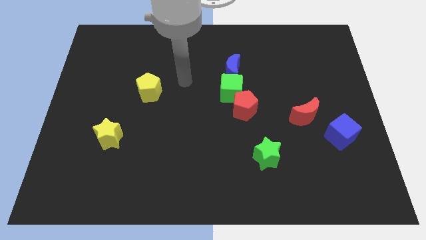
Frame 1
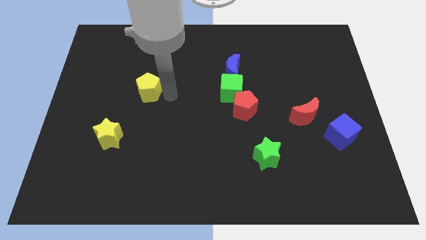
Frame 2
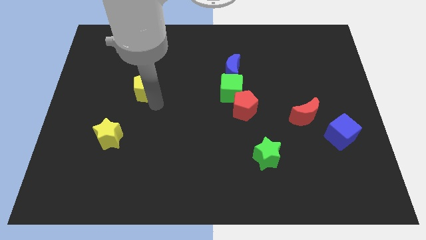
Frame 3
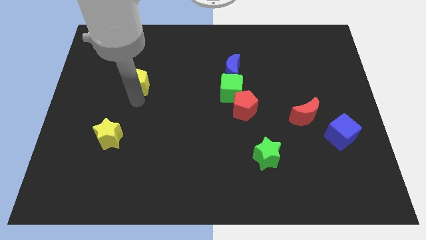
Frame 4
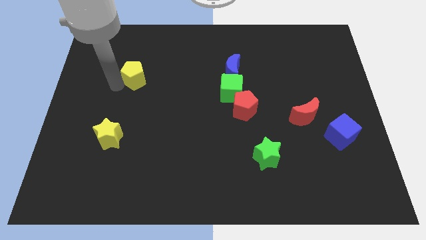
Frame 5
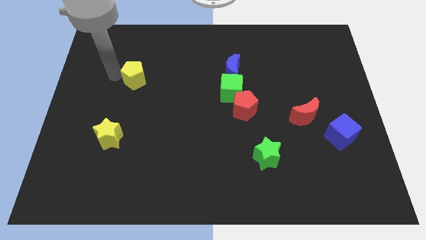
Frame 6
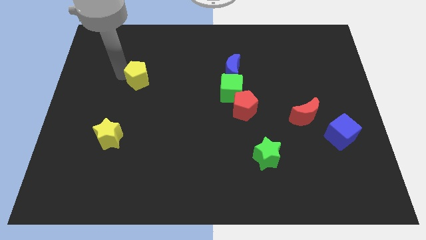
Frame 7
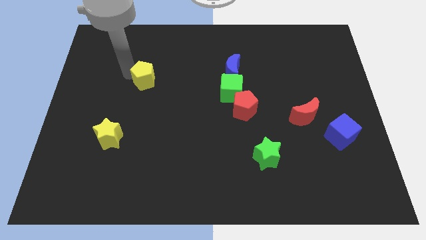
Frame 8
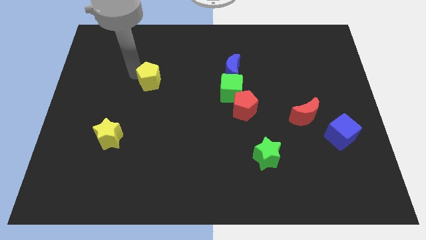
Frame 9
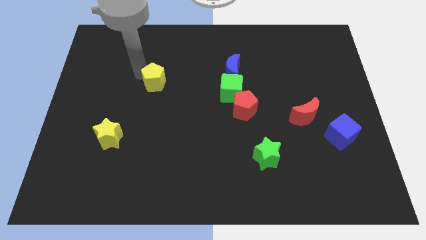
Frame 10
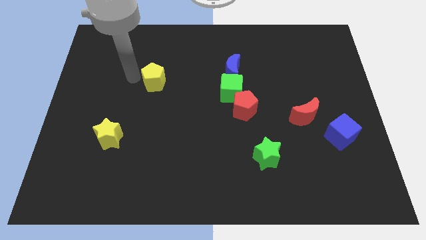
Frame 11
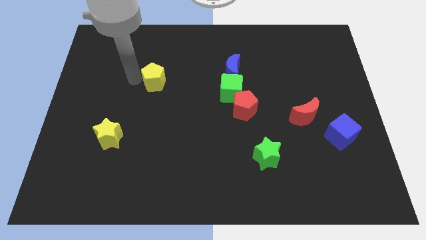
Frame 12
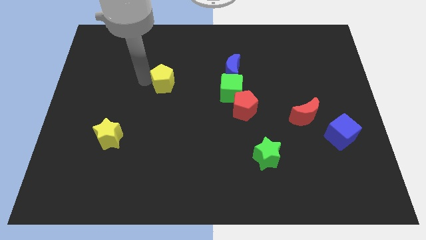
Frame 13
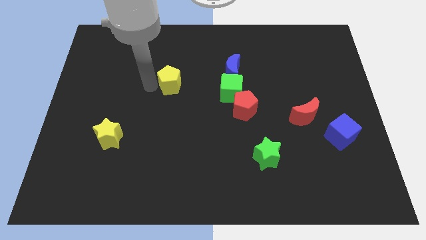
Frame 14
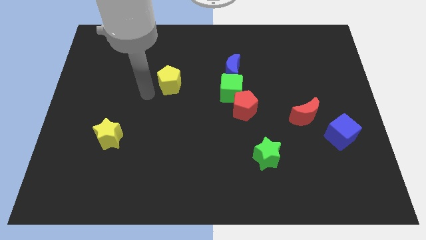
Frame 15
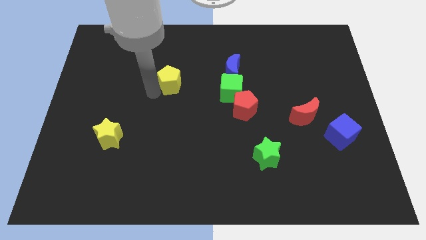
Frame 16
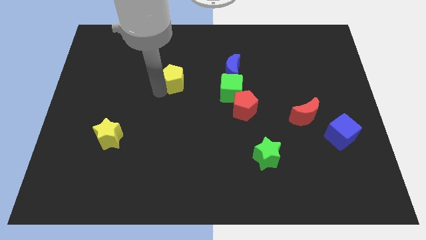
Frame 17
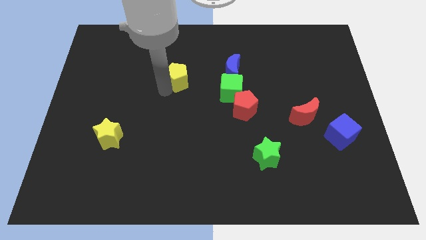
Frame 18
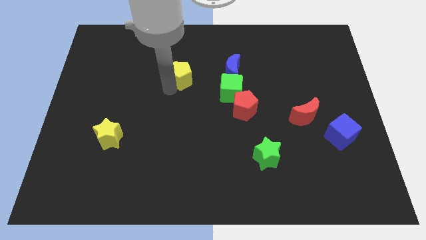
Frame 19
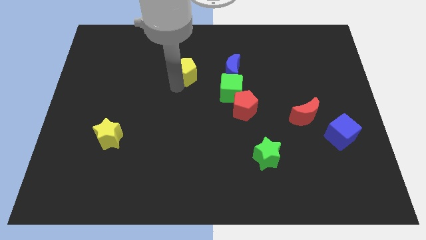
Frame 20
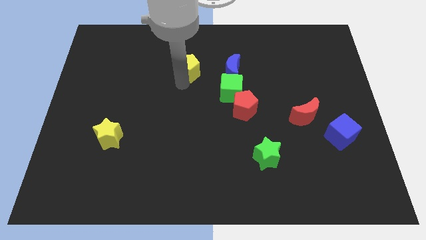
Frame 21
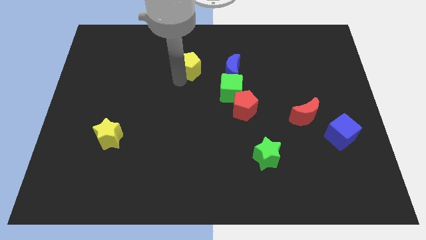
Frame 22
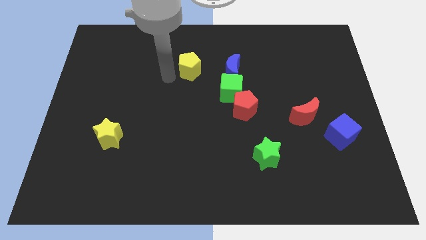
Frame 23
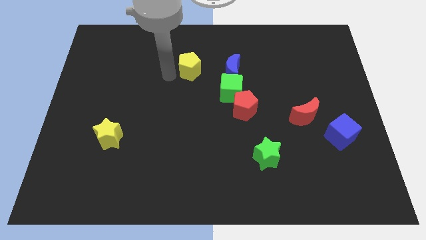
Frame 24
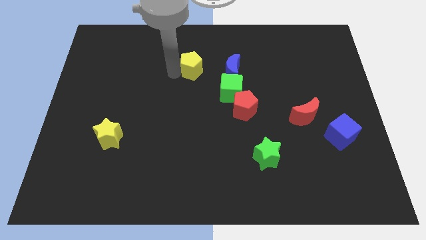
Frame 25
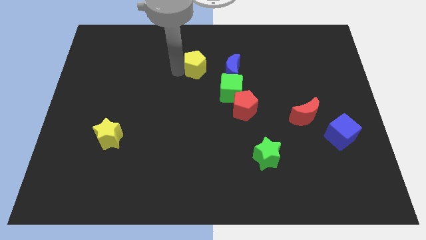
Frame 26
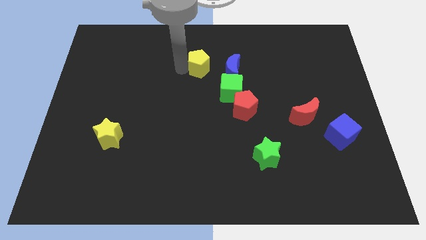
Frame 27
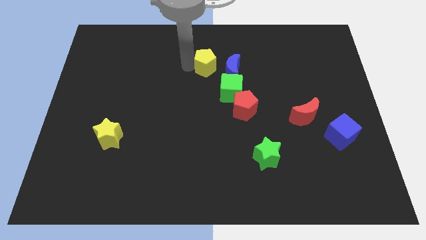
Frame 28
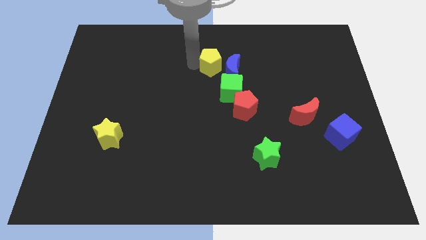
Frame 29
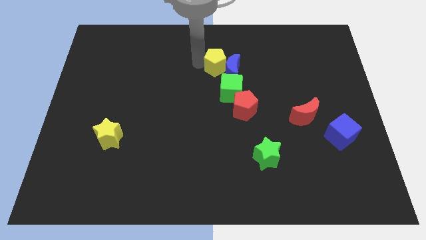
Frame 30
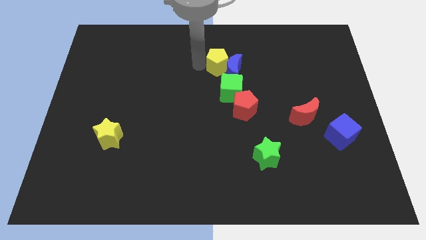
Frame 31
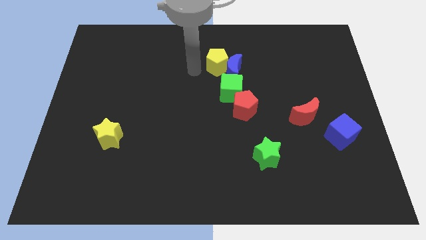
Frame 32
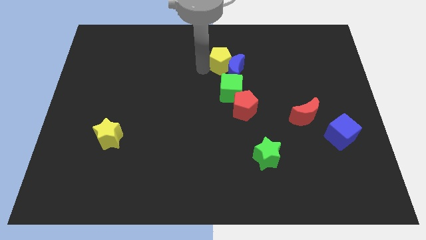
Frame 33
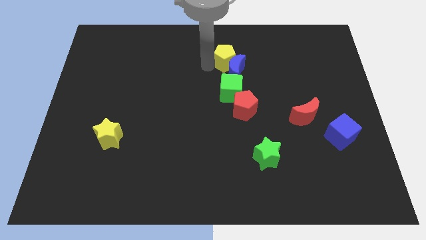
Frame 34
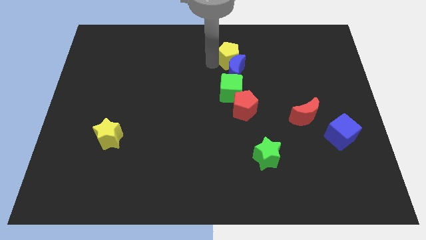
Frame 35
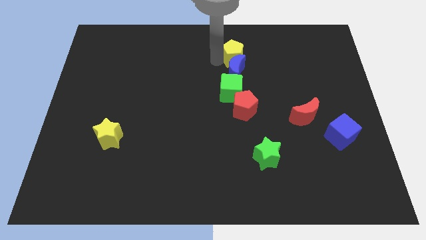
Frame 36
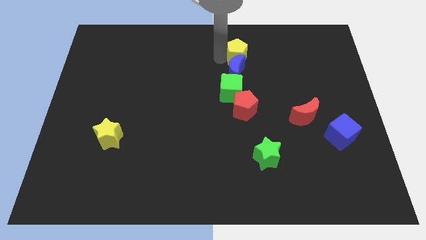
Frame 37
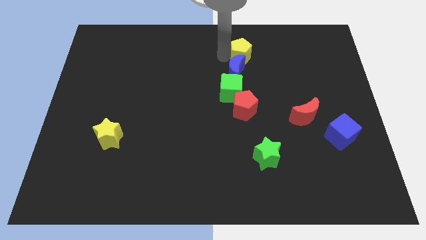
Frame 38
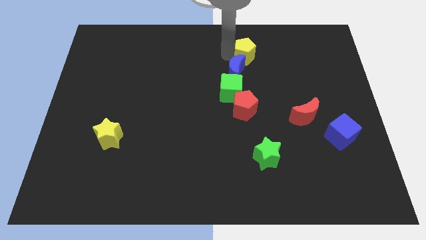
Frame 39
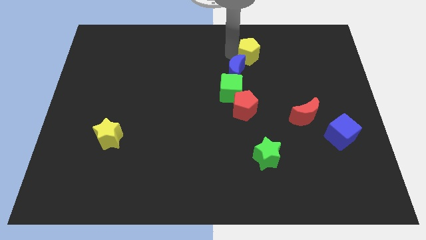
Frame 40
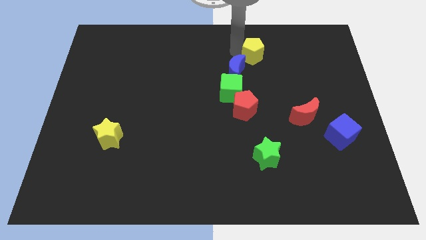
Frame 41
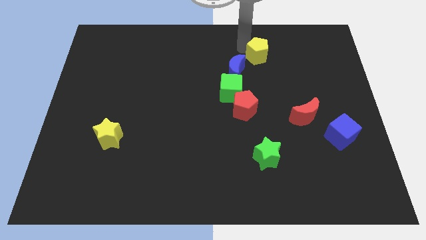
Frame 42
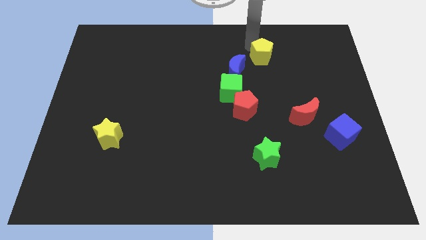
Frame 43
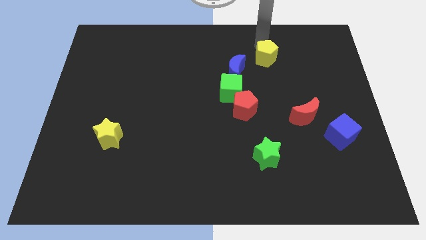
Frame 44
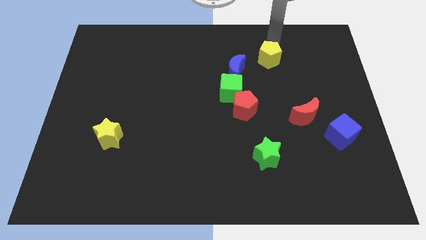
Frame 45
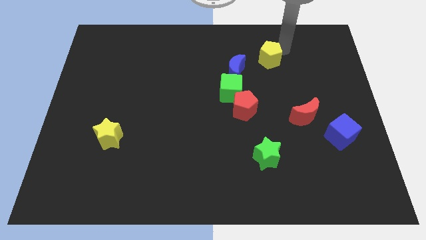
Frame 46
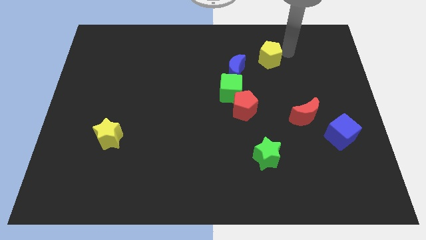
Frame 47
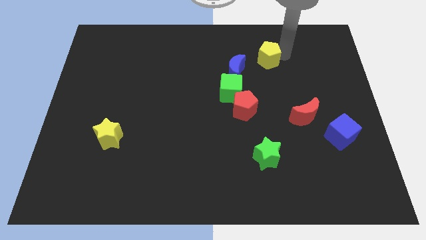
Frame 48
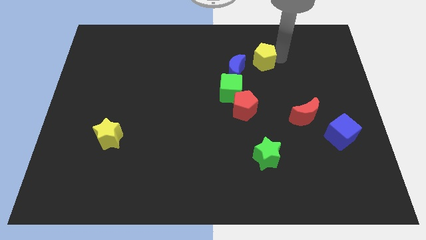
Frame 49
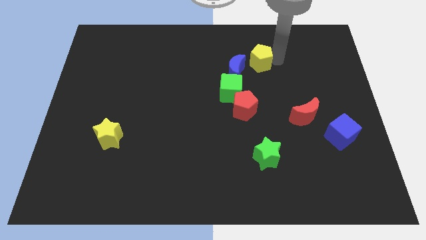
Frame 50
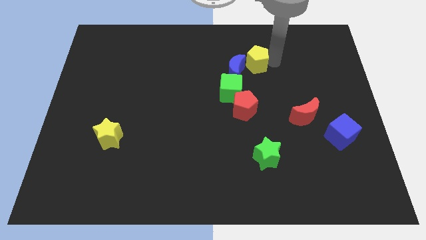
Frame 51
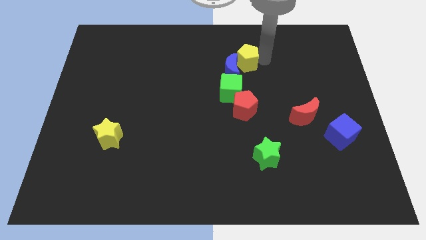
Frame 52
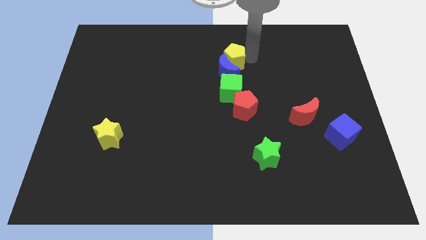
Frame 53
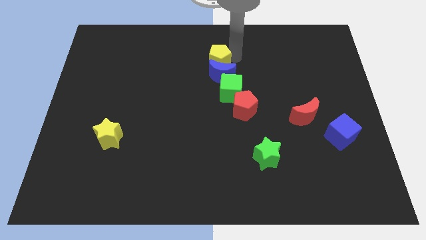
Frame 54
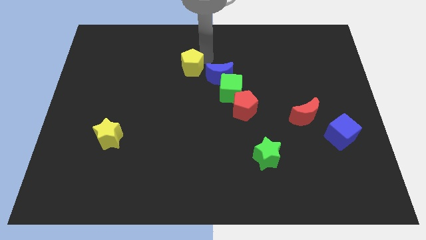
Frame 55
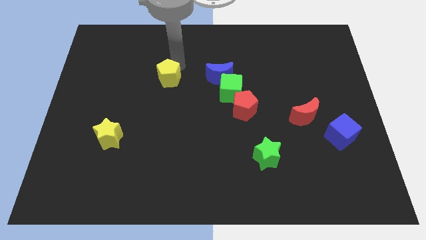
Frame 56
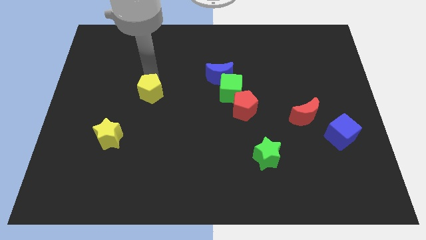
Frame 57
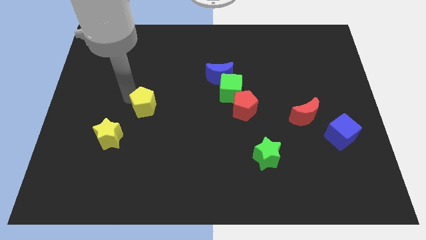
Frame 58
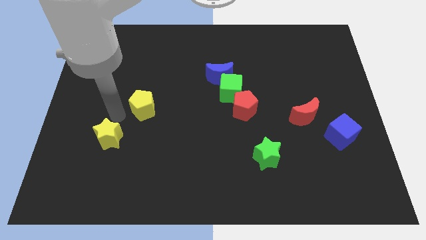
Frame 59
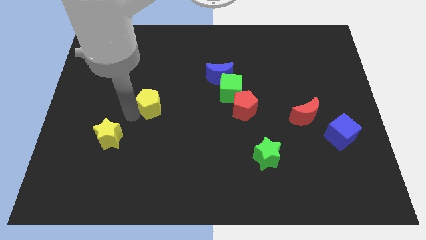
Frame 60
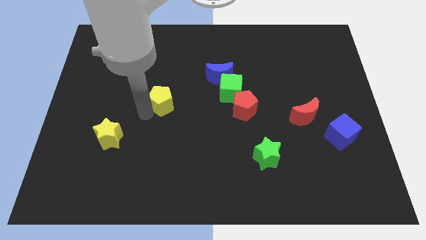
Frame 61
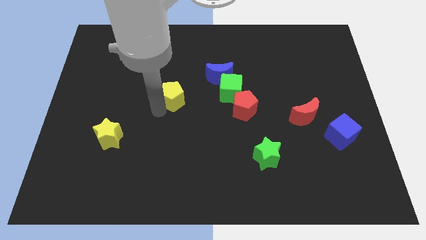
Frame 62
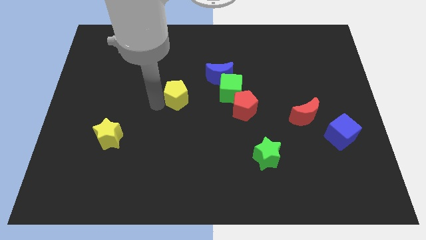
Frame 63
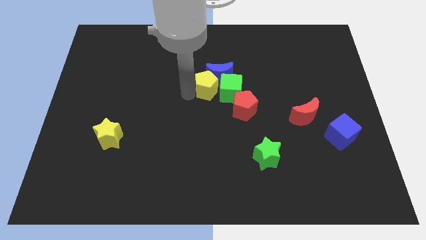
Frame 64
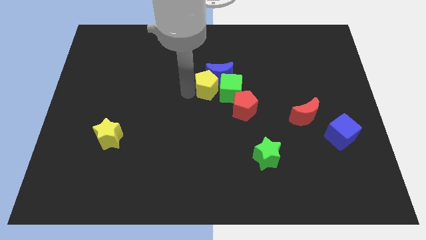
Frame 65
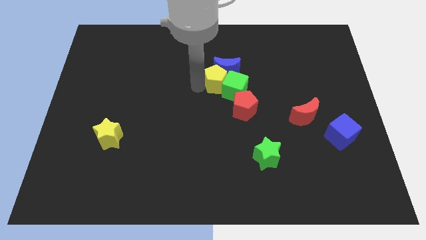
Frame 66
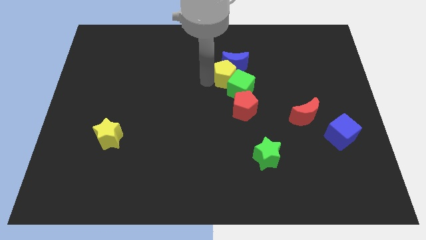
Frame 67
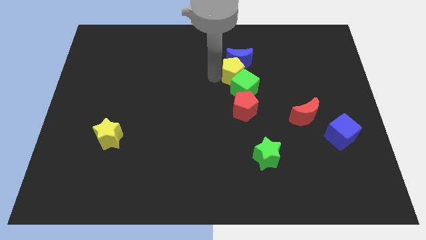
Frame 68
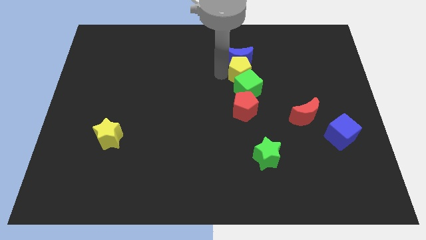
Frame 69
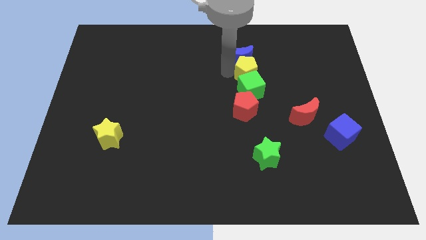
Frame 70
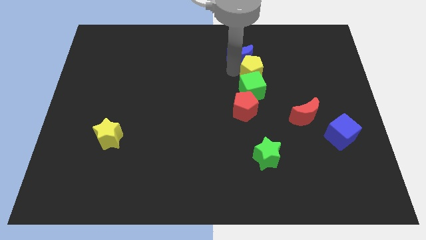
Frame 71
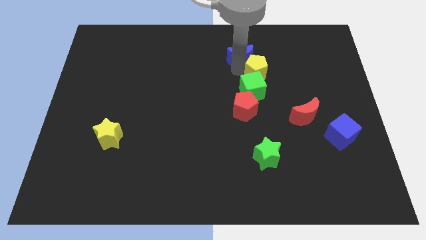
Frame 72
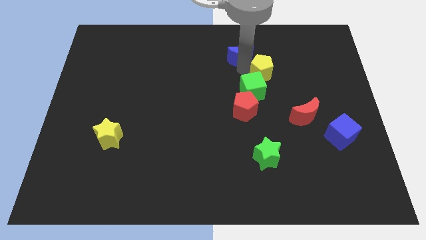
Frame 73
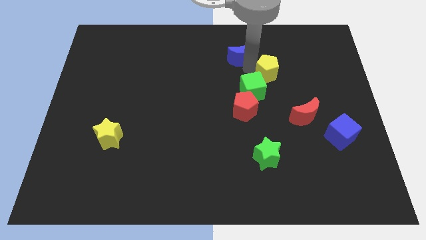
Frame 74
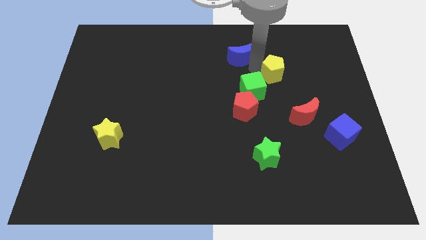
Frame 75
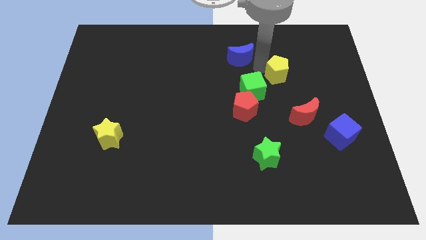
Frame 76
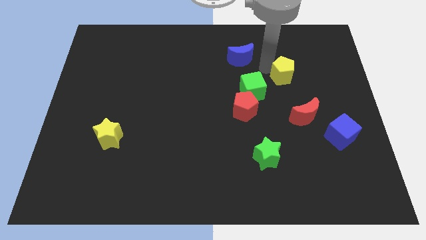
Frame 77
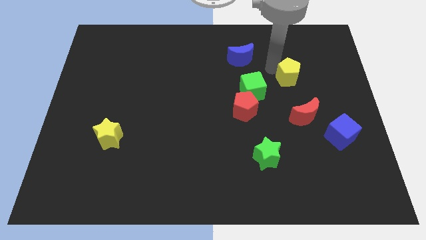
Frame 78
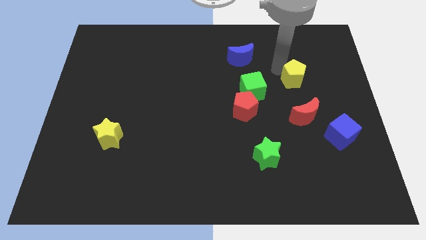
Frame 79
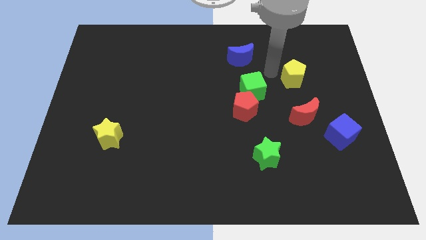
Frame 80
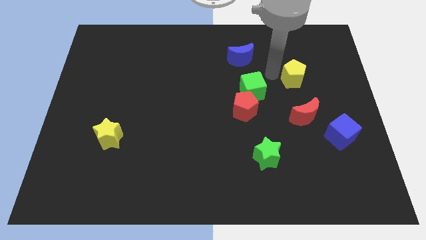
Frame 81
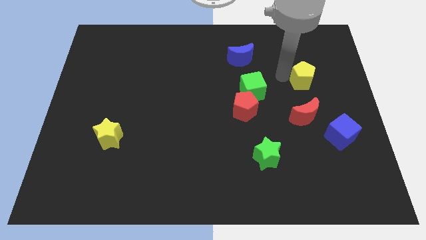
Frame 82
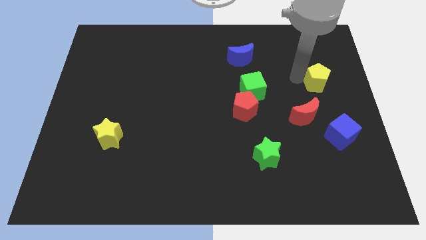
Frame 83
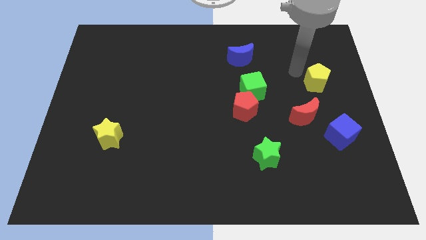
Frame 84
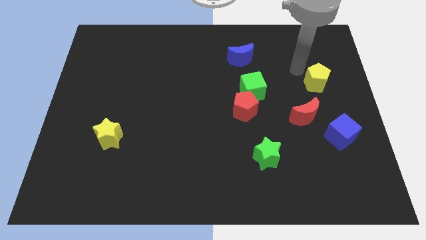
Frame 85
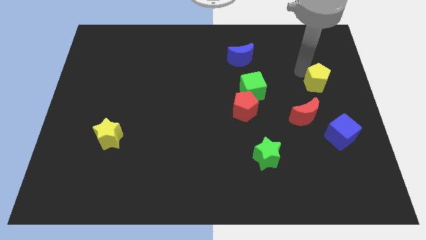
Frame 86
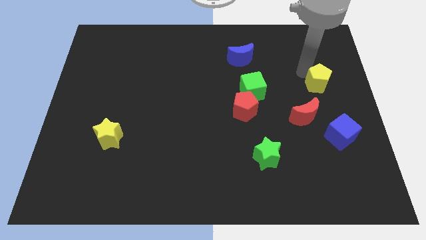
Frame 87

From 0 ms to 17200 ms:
move the yellow pentagon to the right side
